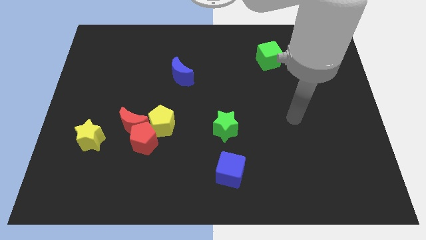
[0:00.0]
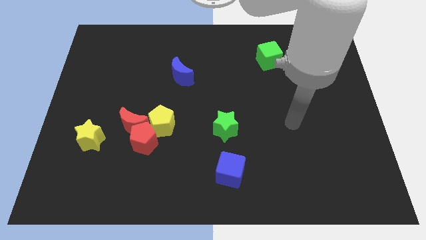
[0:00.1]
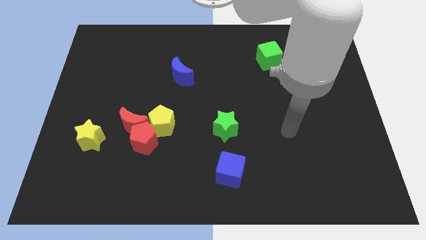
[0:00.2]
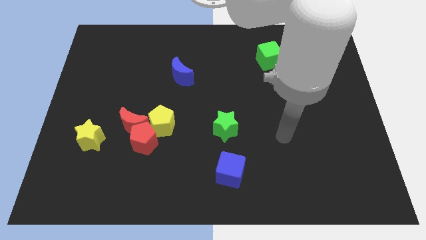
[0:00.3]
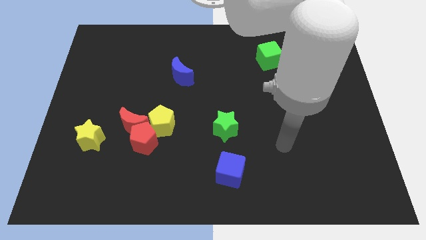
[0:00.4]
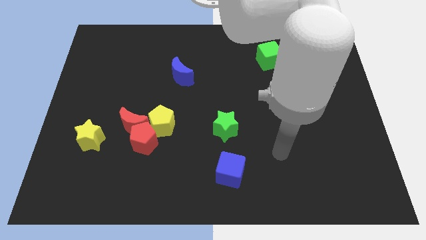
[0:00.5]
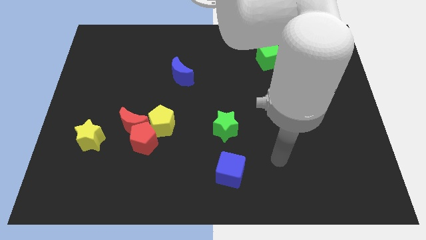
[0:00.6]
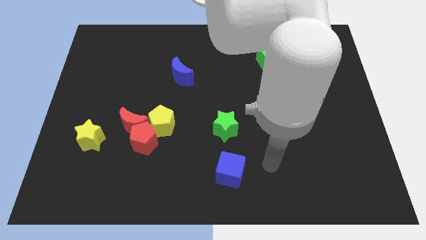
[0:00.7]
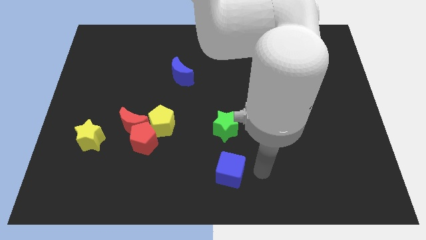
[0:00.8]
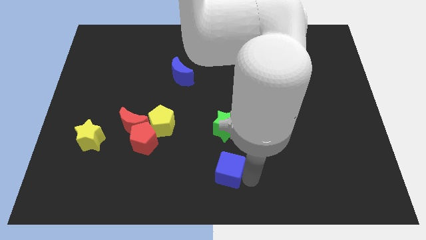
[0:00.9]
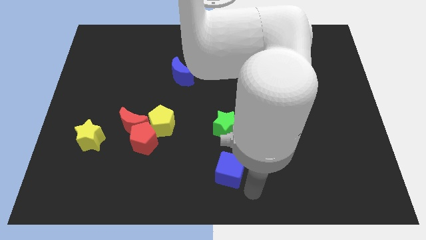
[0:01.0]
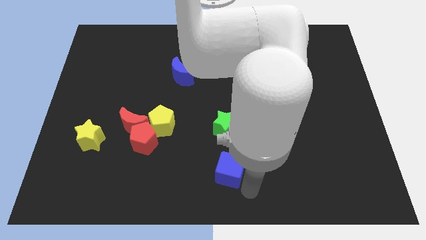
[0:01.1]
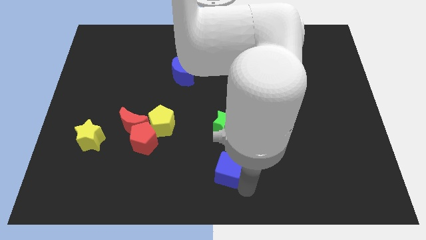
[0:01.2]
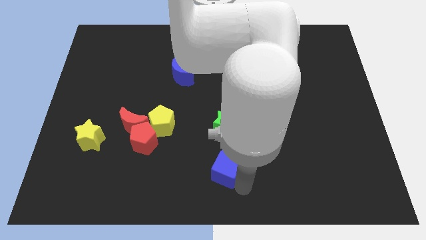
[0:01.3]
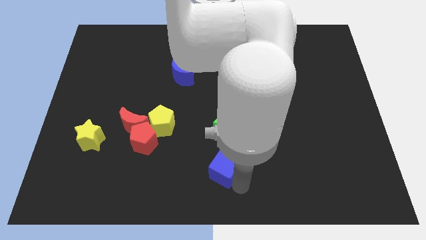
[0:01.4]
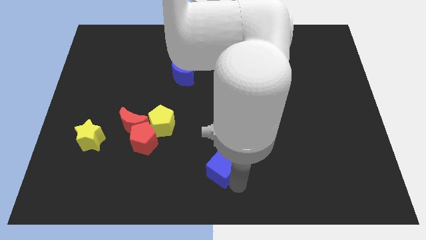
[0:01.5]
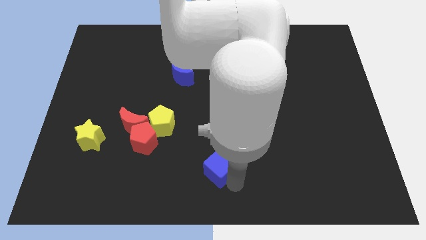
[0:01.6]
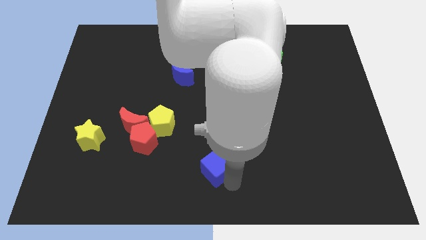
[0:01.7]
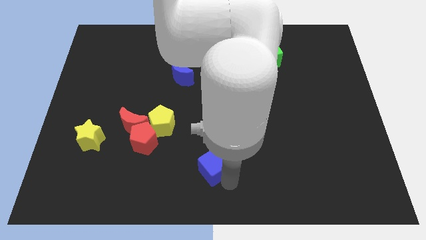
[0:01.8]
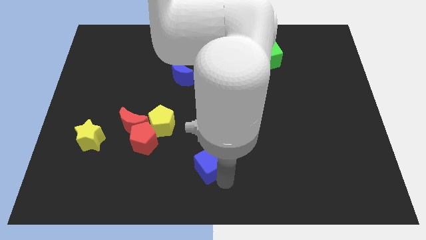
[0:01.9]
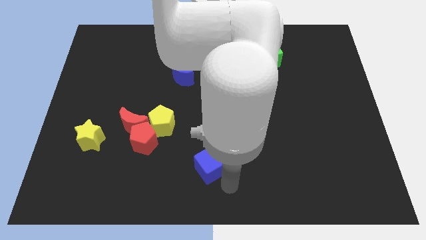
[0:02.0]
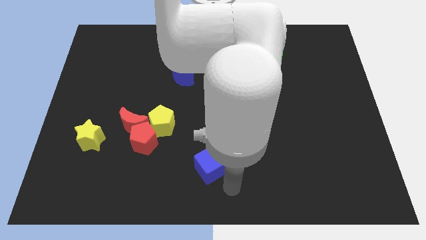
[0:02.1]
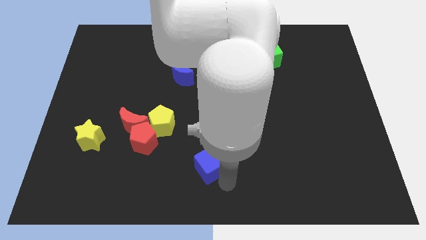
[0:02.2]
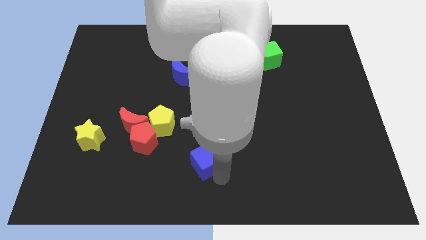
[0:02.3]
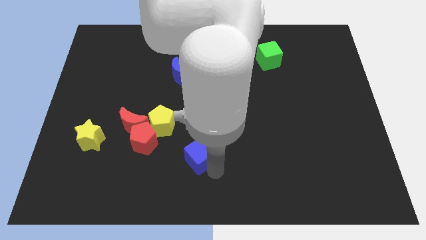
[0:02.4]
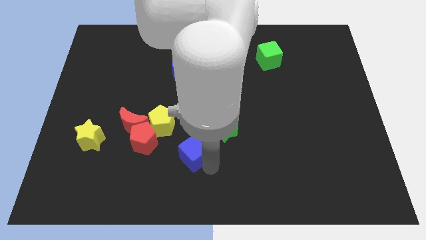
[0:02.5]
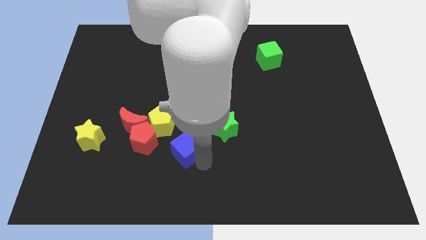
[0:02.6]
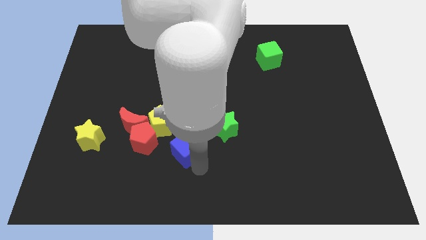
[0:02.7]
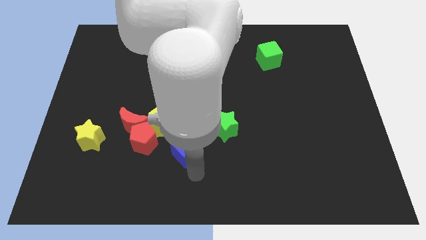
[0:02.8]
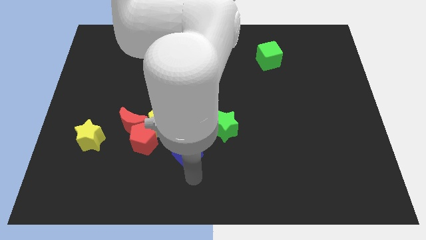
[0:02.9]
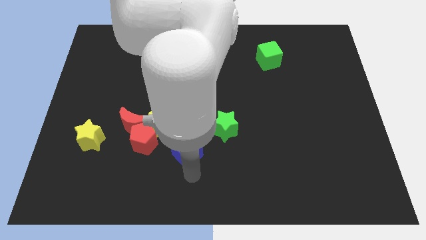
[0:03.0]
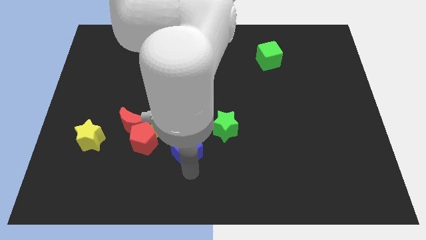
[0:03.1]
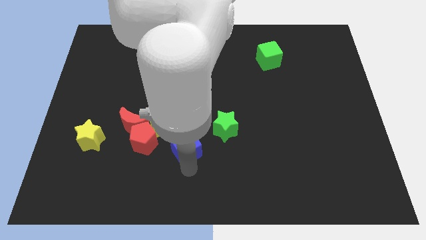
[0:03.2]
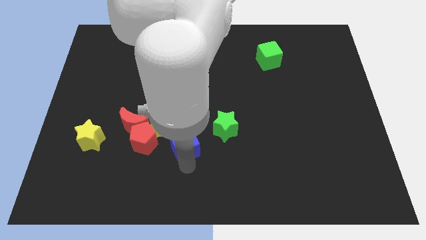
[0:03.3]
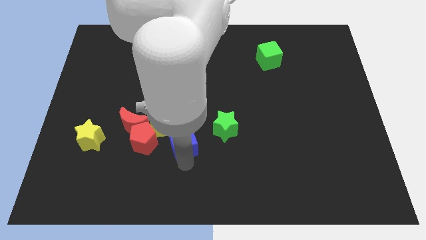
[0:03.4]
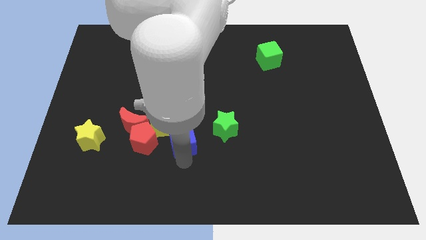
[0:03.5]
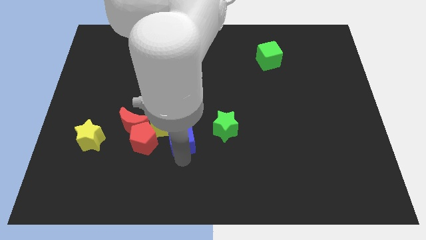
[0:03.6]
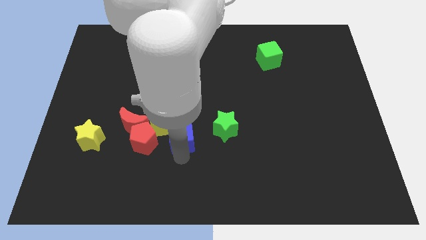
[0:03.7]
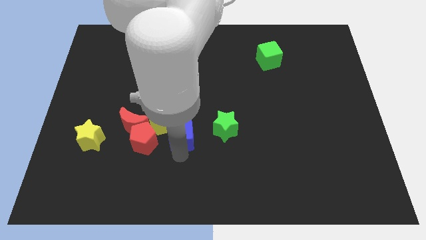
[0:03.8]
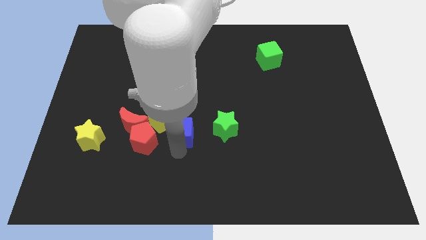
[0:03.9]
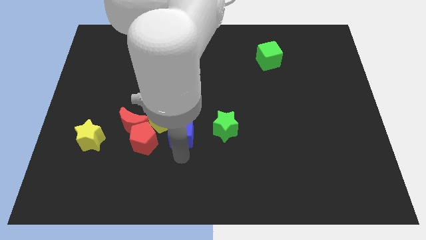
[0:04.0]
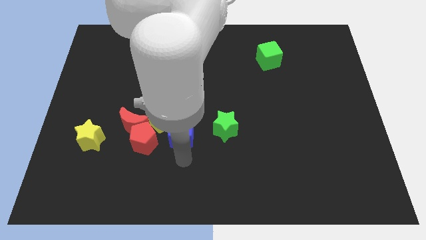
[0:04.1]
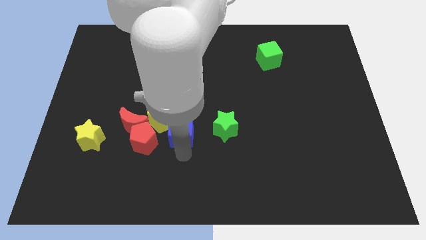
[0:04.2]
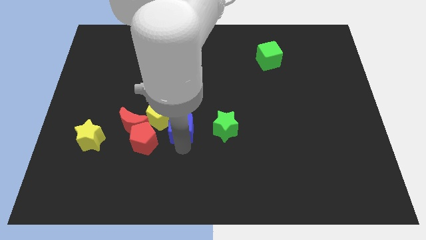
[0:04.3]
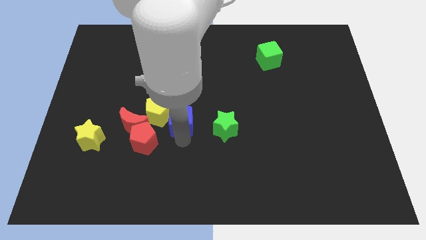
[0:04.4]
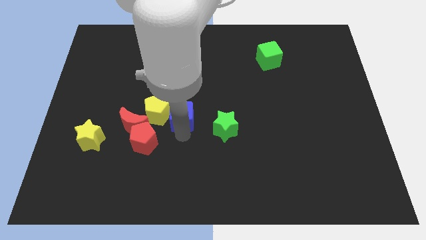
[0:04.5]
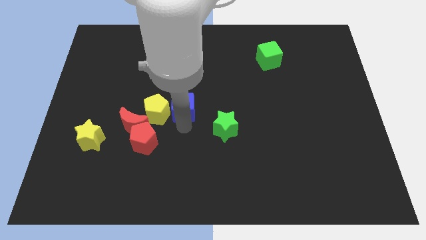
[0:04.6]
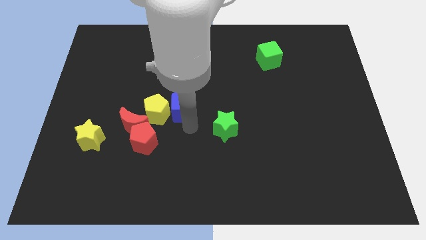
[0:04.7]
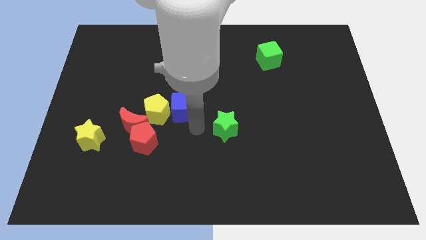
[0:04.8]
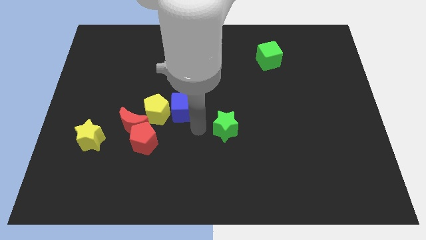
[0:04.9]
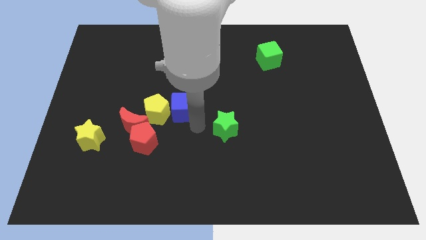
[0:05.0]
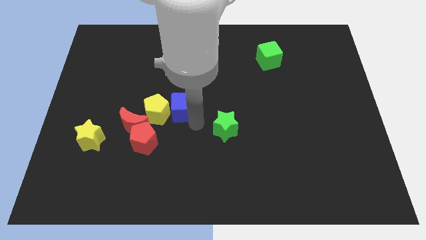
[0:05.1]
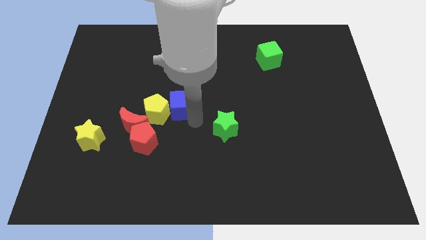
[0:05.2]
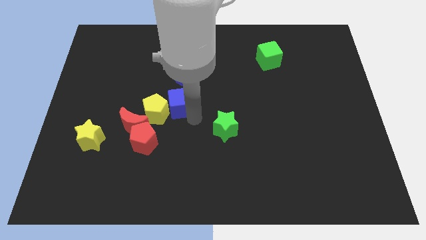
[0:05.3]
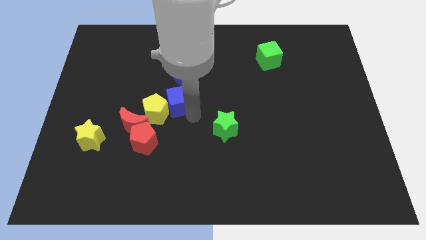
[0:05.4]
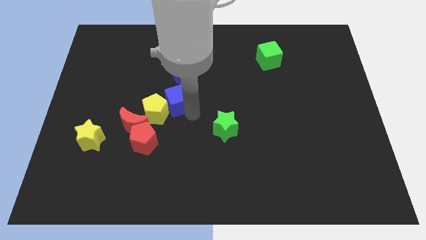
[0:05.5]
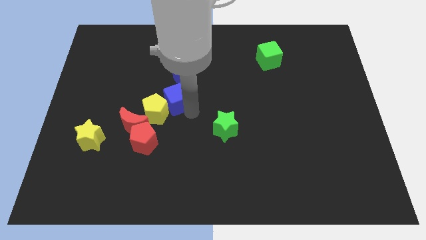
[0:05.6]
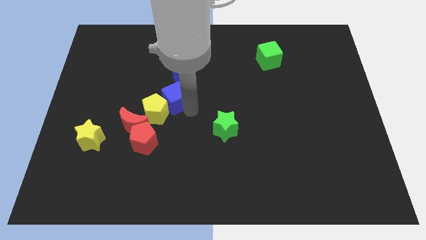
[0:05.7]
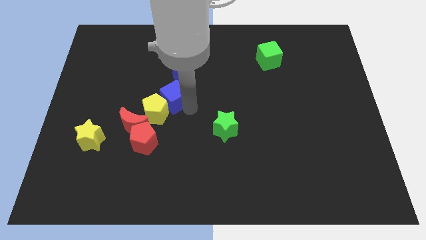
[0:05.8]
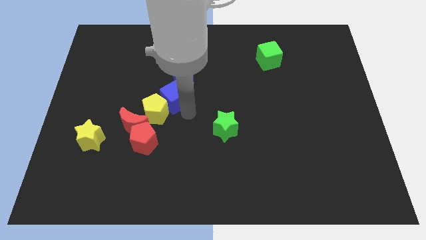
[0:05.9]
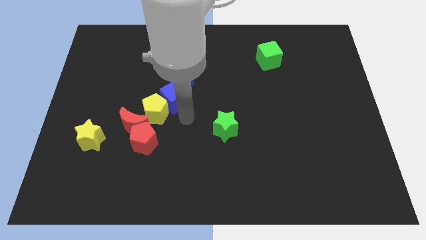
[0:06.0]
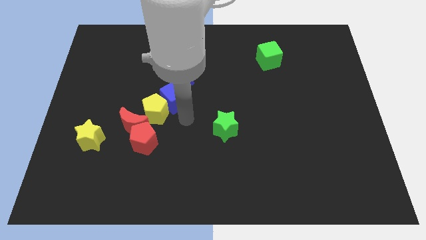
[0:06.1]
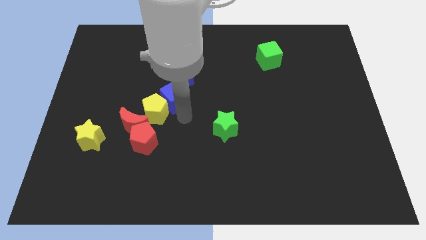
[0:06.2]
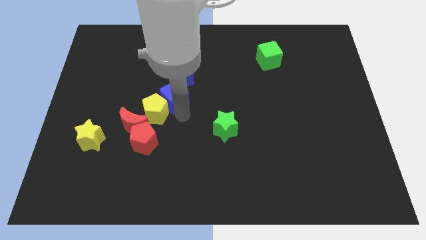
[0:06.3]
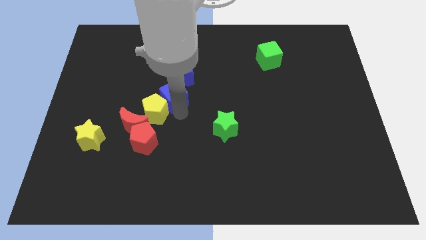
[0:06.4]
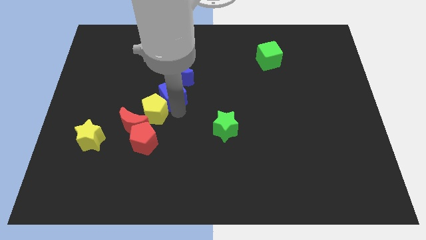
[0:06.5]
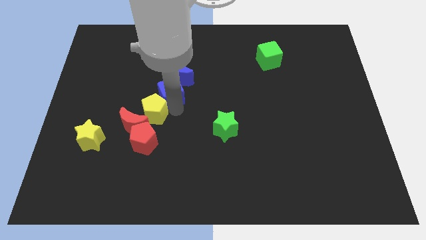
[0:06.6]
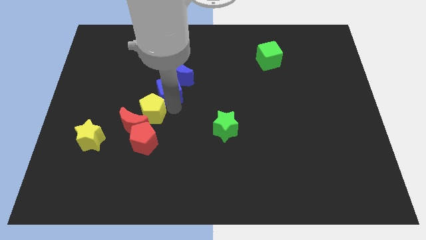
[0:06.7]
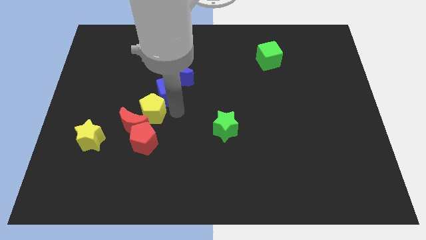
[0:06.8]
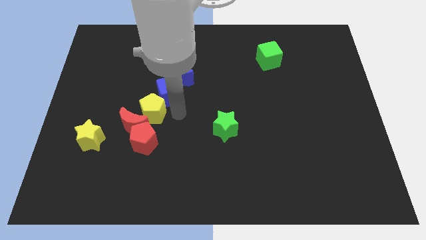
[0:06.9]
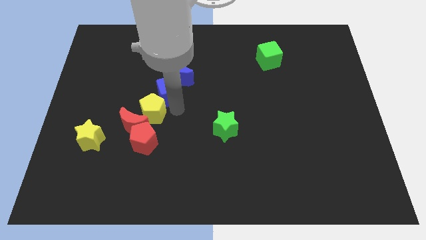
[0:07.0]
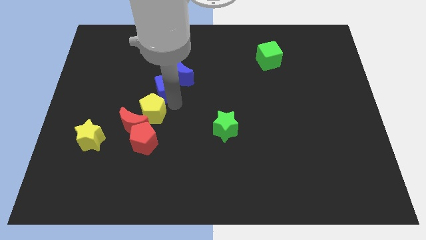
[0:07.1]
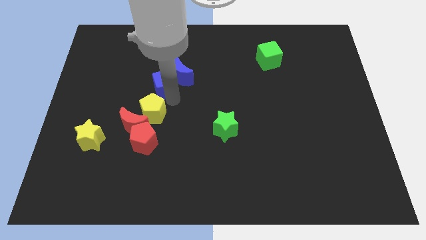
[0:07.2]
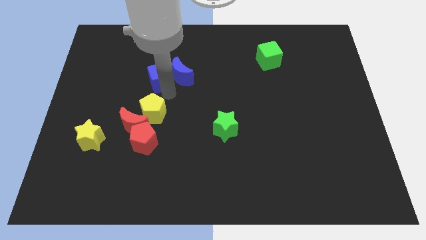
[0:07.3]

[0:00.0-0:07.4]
slide the blue cube to the top left of the blue moon
